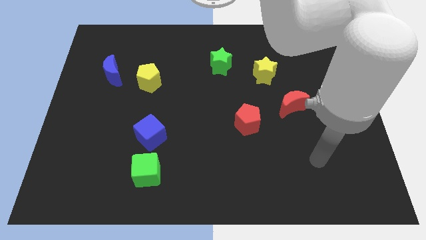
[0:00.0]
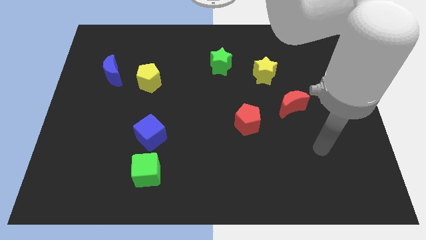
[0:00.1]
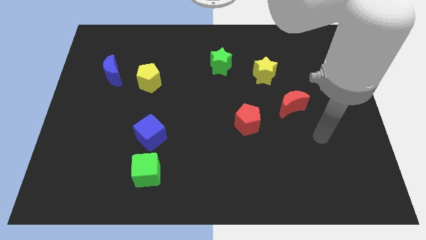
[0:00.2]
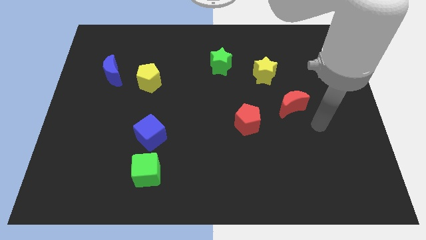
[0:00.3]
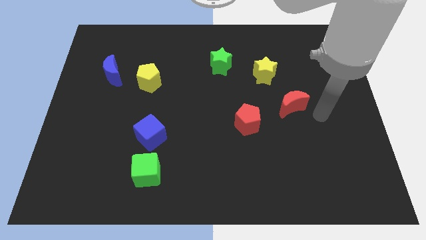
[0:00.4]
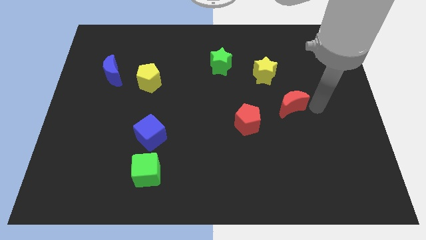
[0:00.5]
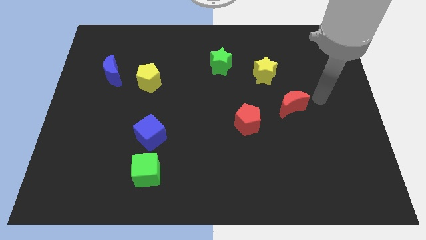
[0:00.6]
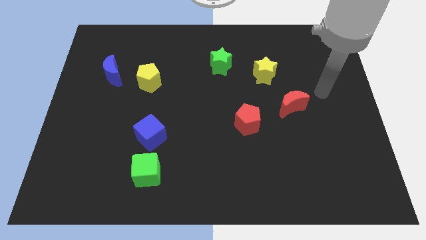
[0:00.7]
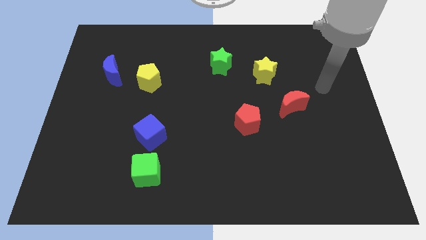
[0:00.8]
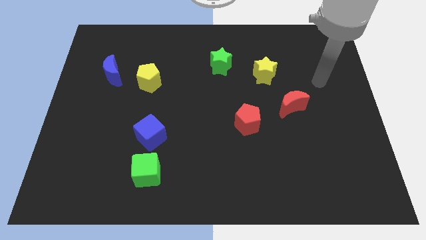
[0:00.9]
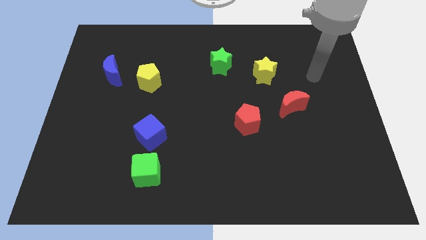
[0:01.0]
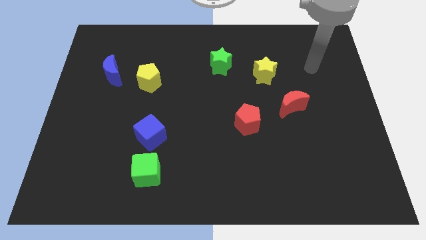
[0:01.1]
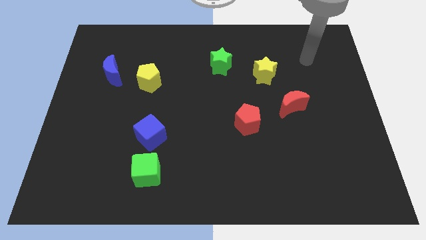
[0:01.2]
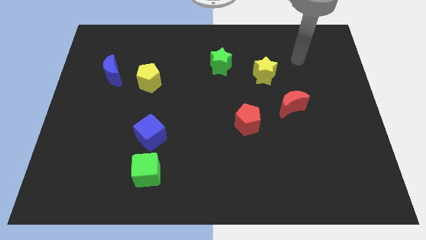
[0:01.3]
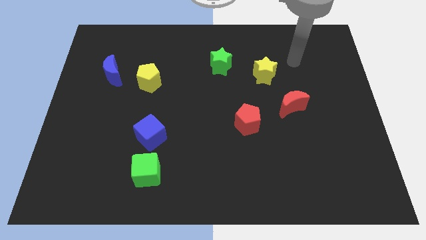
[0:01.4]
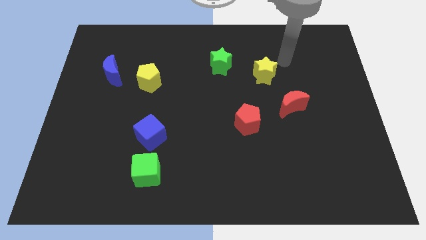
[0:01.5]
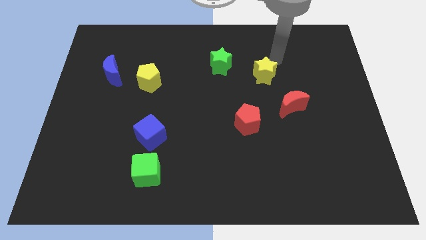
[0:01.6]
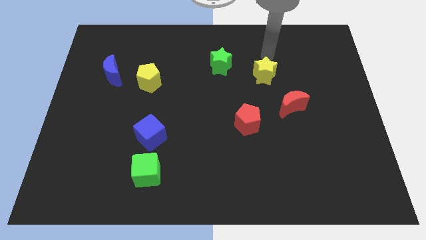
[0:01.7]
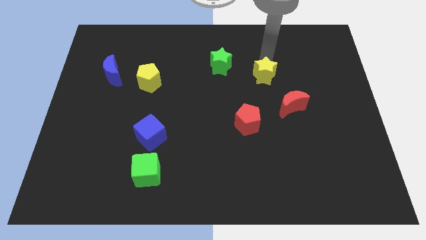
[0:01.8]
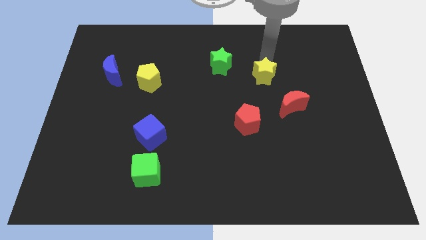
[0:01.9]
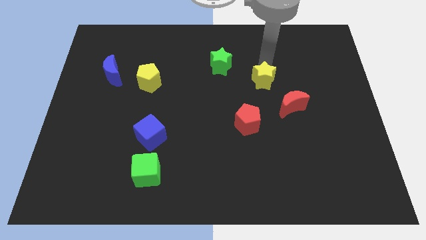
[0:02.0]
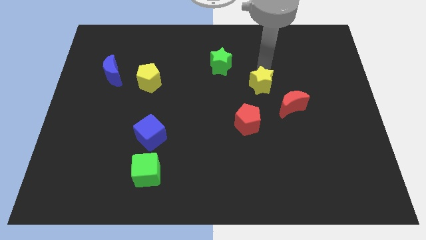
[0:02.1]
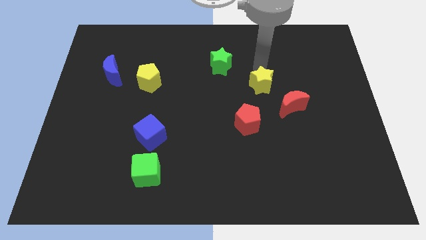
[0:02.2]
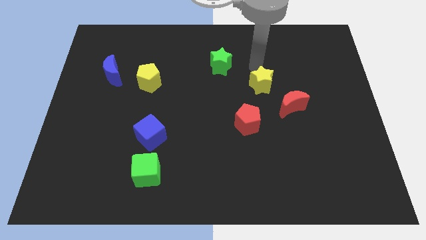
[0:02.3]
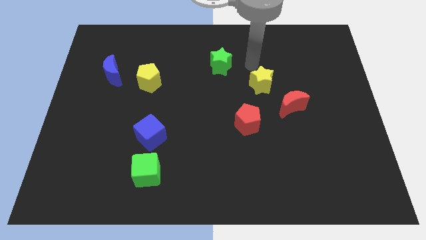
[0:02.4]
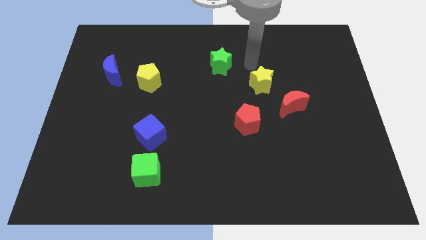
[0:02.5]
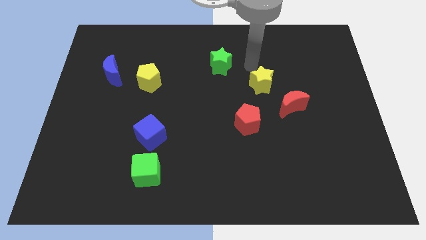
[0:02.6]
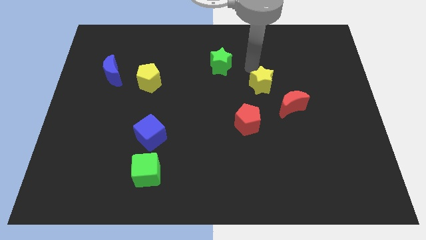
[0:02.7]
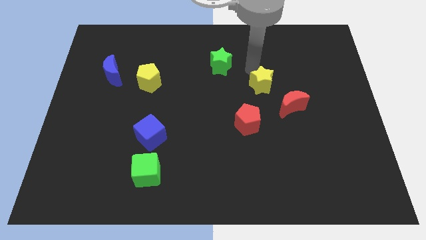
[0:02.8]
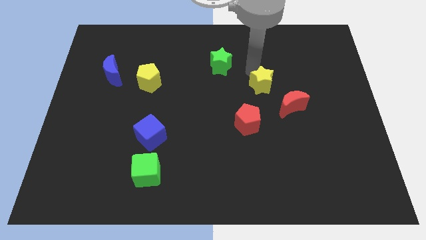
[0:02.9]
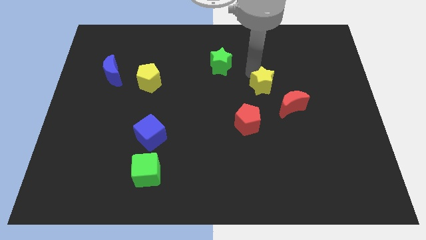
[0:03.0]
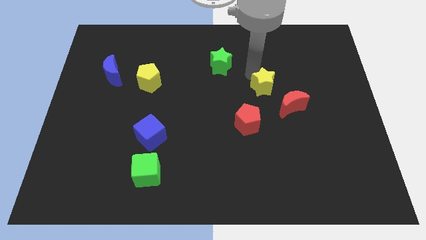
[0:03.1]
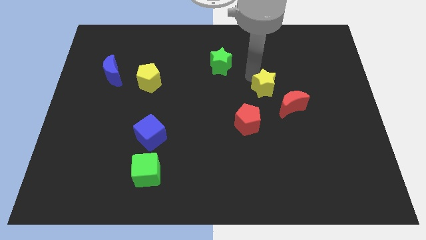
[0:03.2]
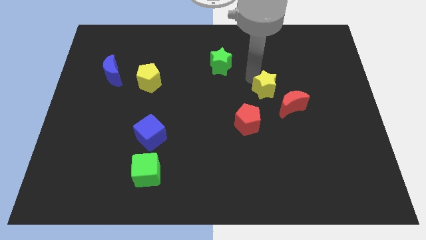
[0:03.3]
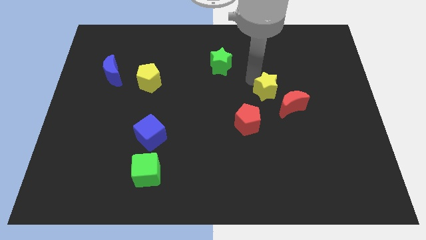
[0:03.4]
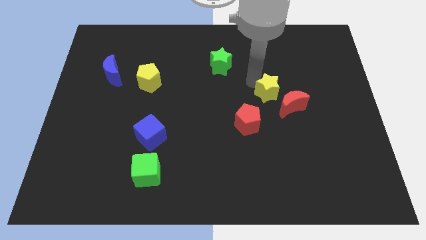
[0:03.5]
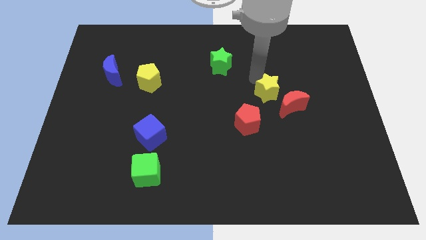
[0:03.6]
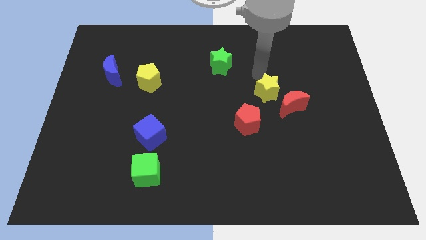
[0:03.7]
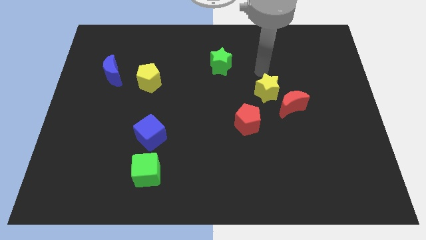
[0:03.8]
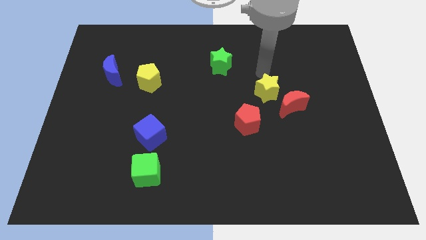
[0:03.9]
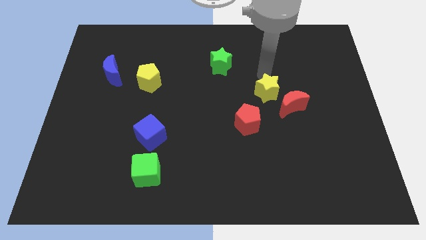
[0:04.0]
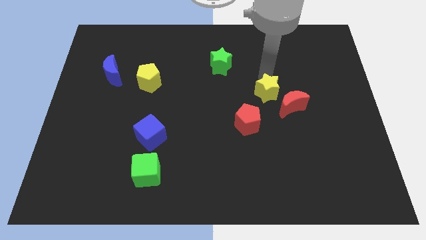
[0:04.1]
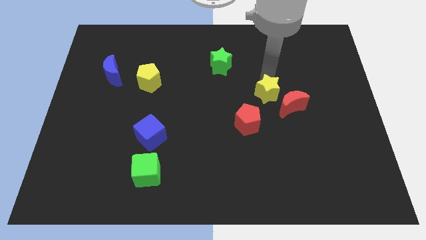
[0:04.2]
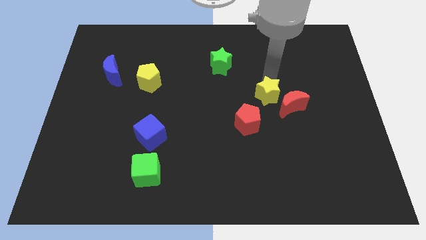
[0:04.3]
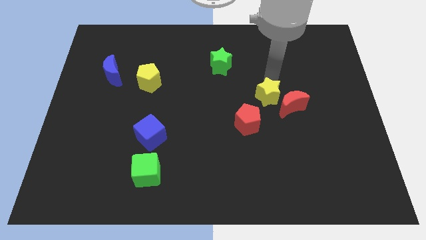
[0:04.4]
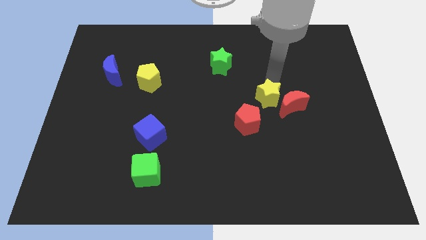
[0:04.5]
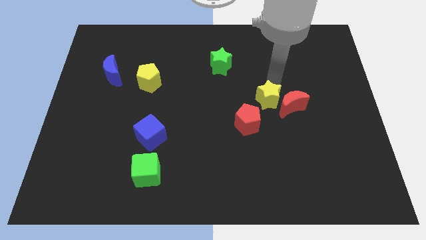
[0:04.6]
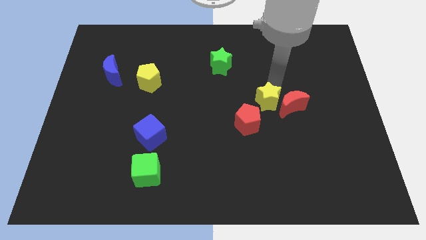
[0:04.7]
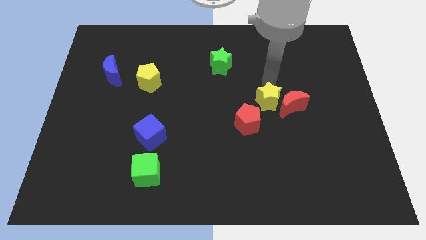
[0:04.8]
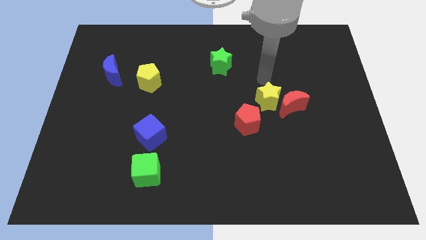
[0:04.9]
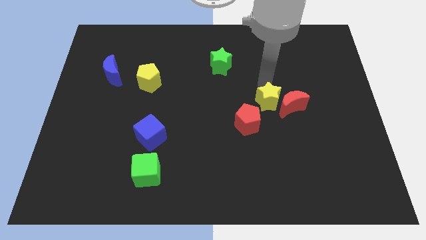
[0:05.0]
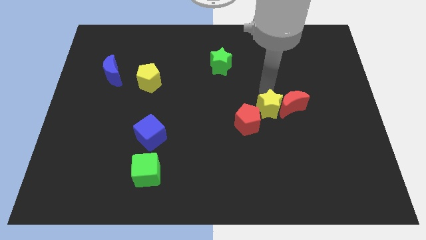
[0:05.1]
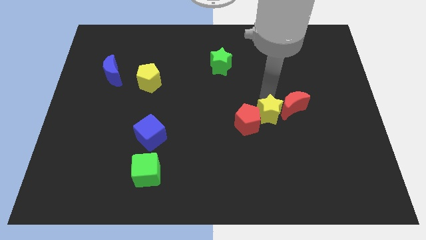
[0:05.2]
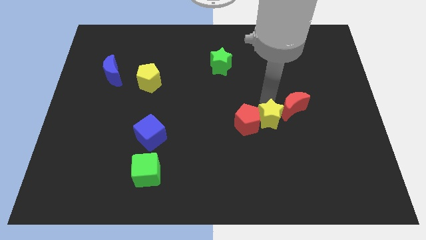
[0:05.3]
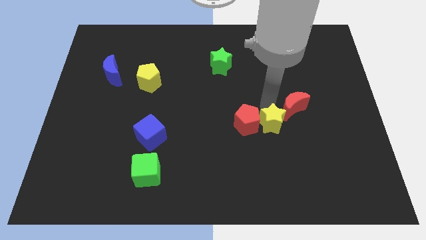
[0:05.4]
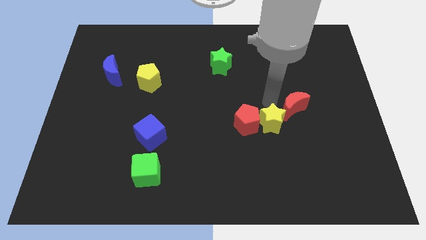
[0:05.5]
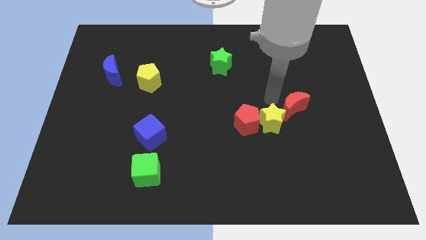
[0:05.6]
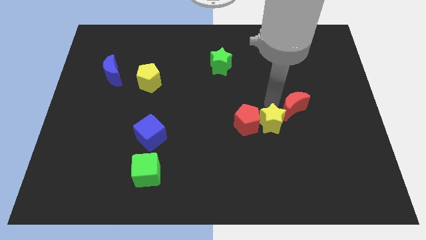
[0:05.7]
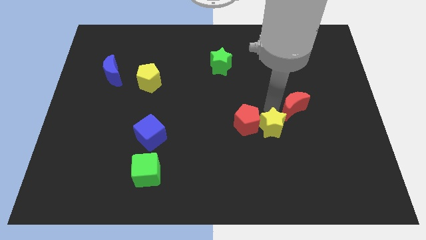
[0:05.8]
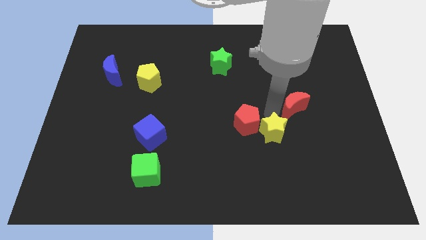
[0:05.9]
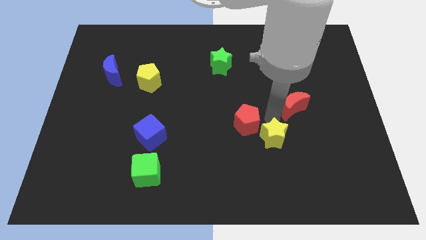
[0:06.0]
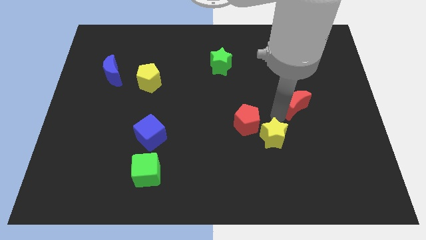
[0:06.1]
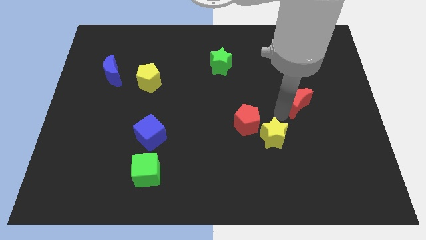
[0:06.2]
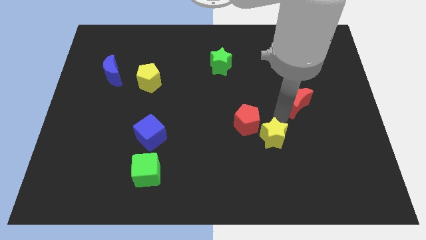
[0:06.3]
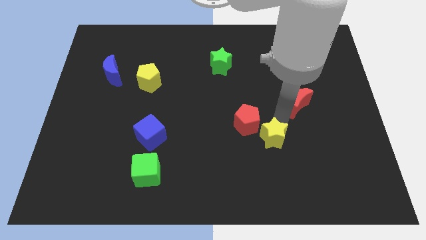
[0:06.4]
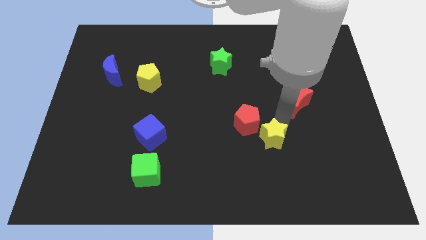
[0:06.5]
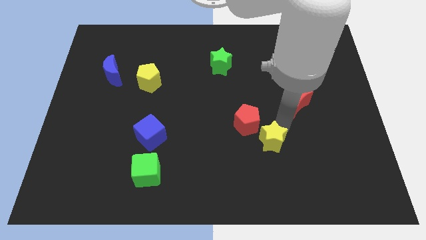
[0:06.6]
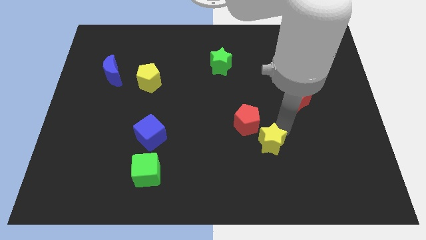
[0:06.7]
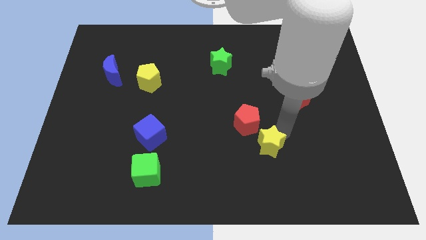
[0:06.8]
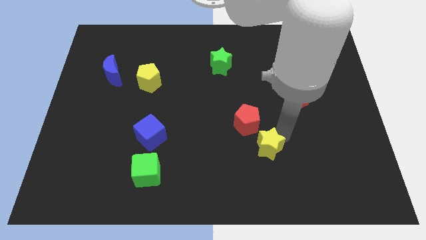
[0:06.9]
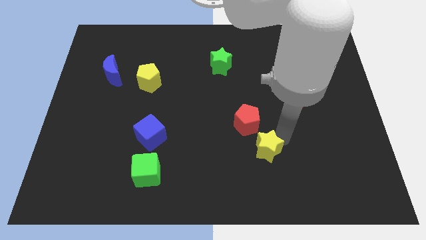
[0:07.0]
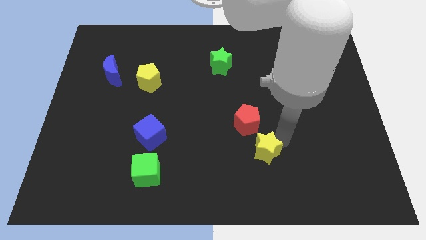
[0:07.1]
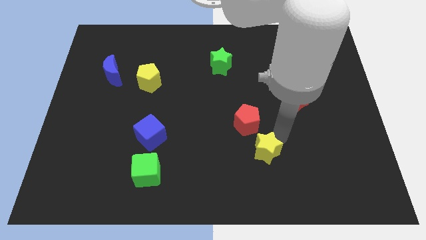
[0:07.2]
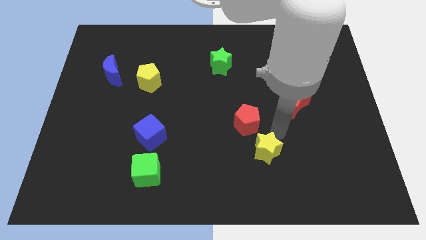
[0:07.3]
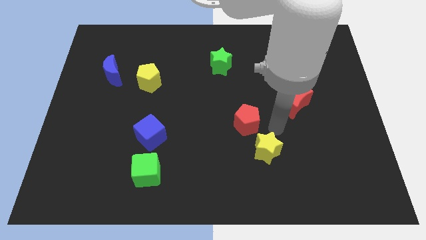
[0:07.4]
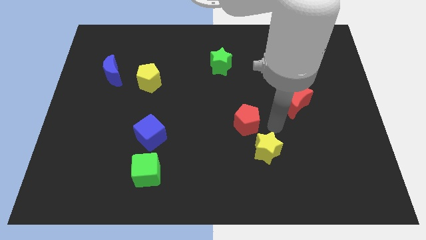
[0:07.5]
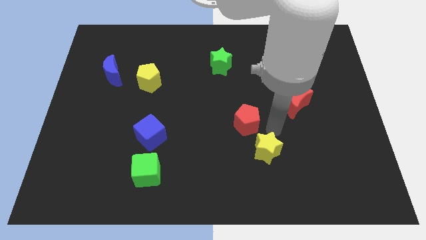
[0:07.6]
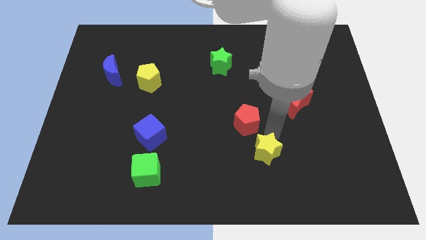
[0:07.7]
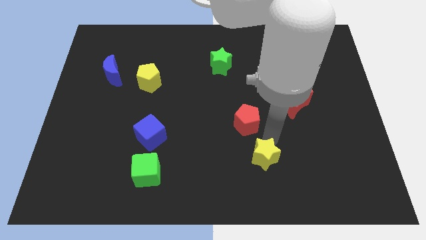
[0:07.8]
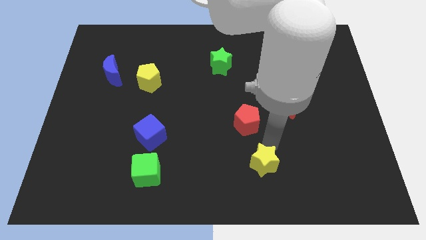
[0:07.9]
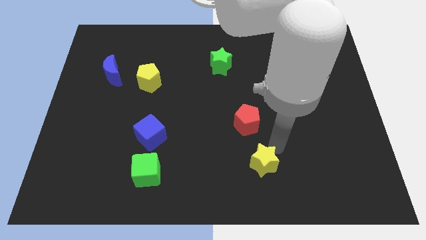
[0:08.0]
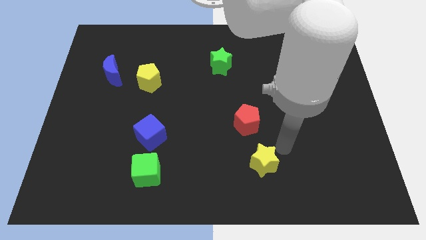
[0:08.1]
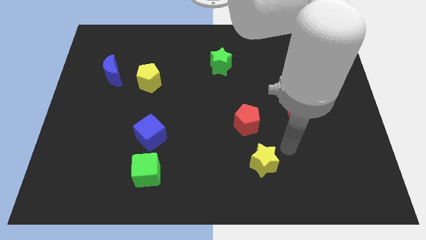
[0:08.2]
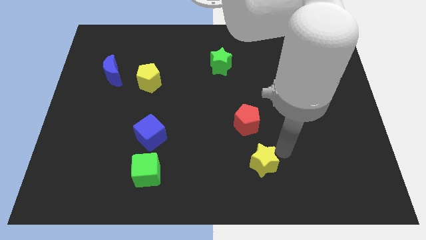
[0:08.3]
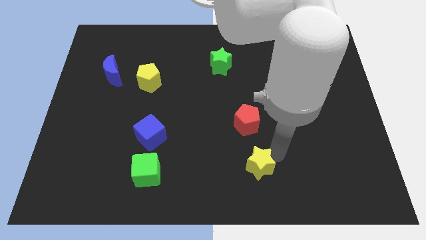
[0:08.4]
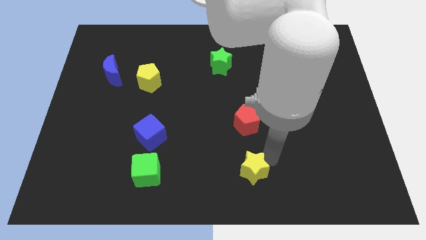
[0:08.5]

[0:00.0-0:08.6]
push the yellow star to the bottom
